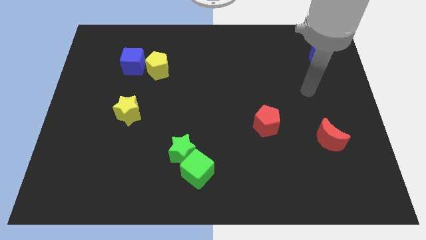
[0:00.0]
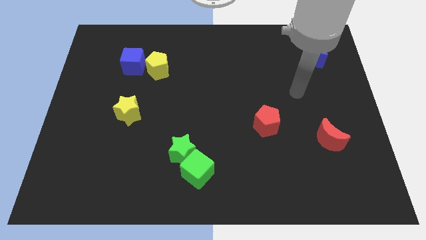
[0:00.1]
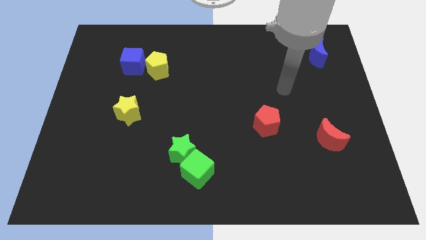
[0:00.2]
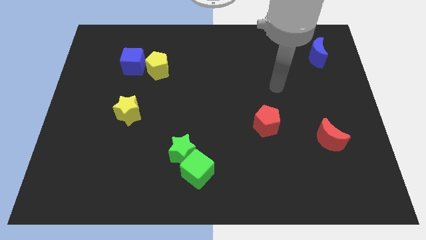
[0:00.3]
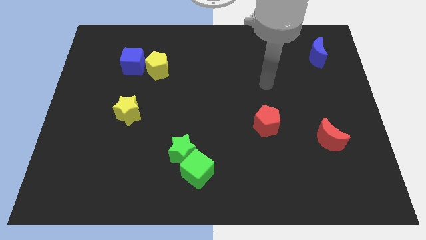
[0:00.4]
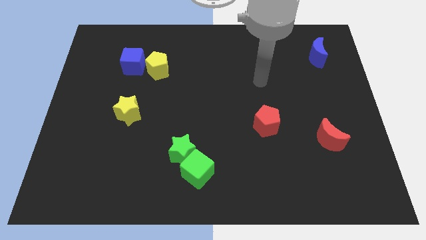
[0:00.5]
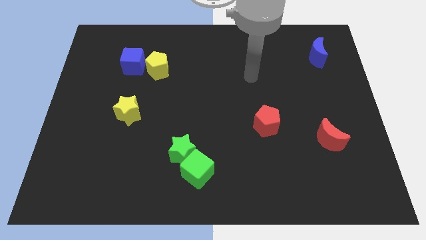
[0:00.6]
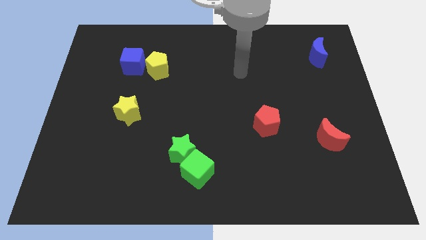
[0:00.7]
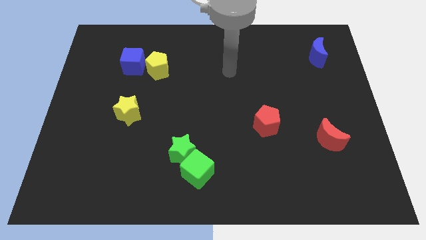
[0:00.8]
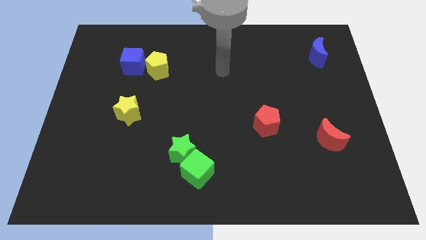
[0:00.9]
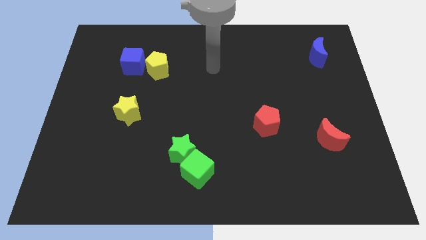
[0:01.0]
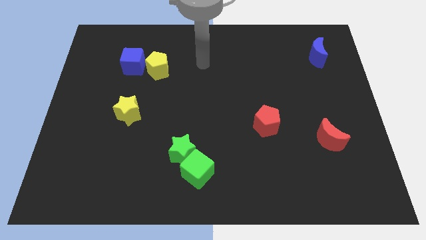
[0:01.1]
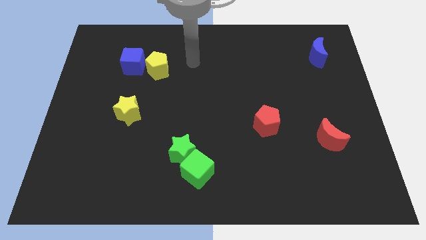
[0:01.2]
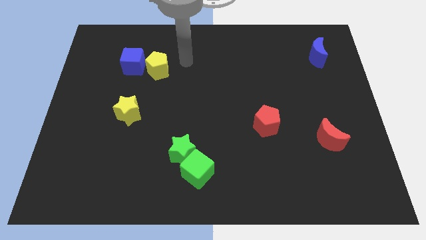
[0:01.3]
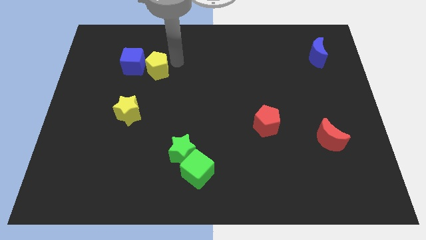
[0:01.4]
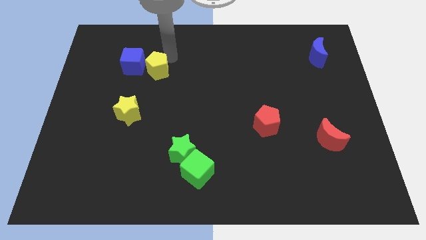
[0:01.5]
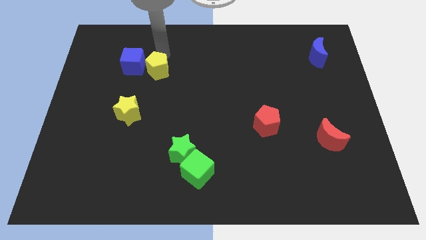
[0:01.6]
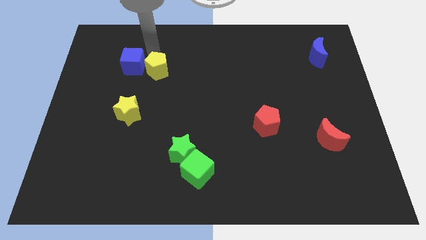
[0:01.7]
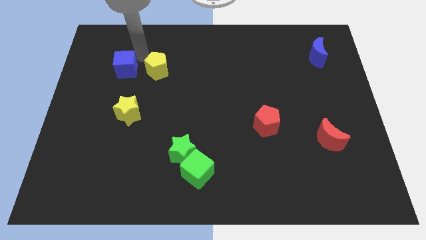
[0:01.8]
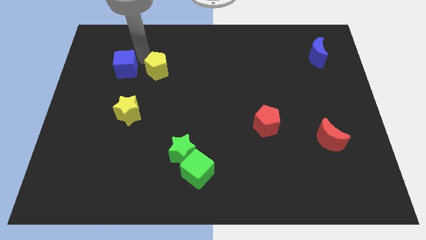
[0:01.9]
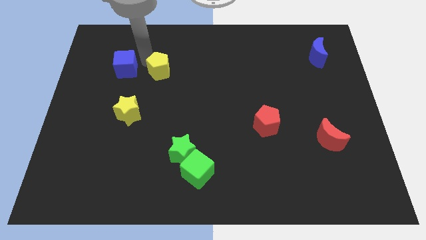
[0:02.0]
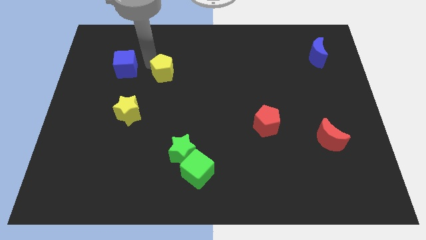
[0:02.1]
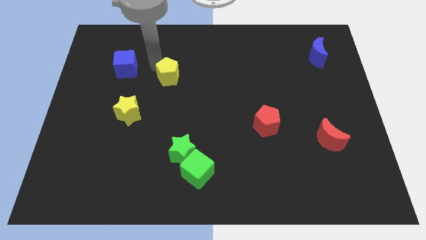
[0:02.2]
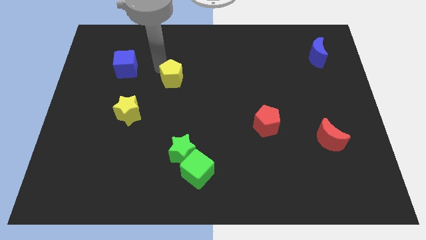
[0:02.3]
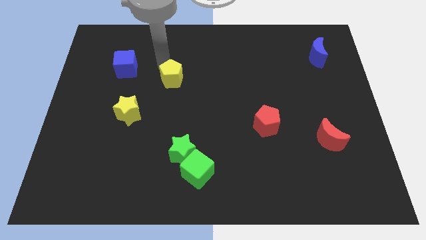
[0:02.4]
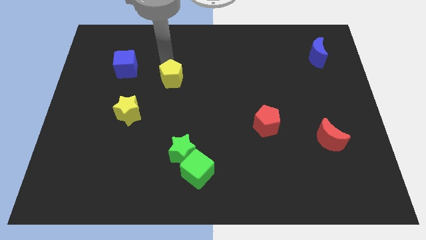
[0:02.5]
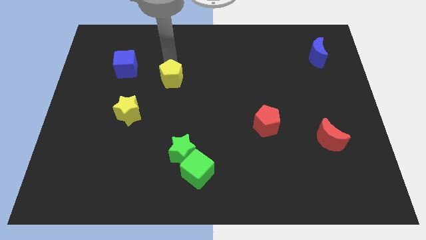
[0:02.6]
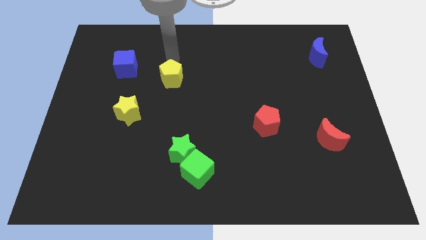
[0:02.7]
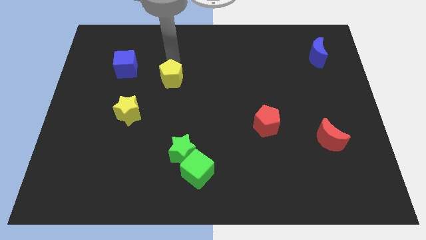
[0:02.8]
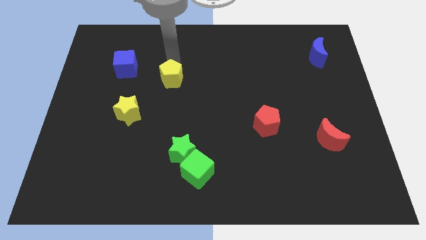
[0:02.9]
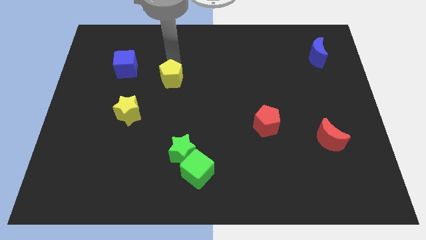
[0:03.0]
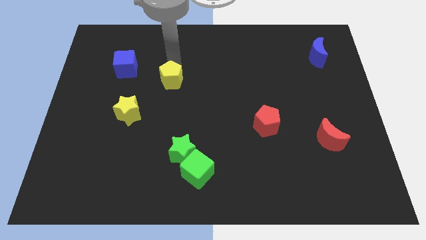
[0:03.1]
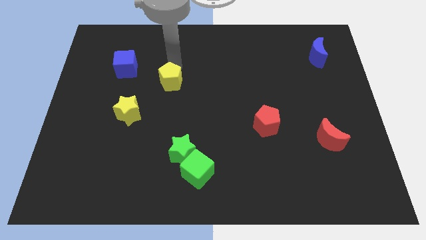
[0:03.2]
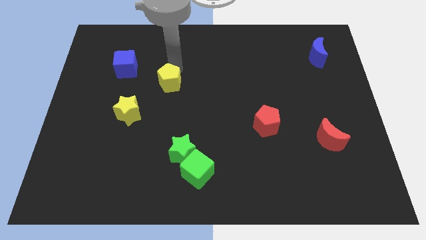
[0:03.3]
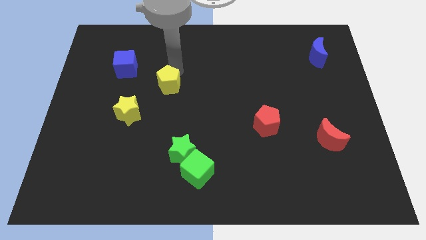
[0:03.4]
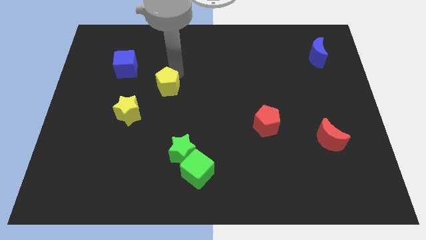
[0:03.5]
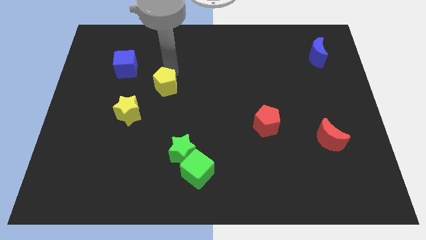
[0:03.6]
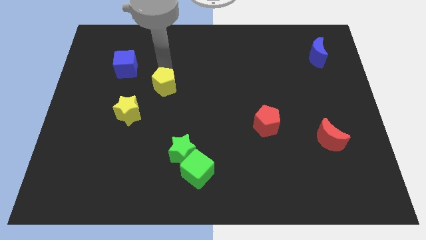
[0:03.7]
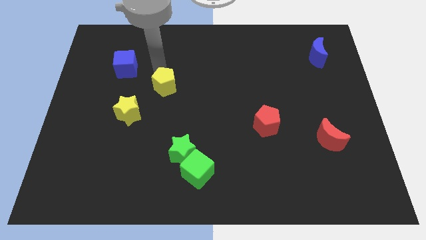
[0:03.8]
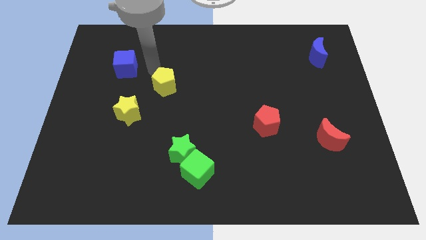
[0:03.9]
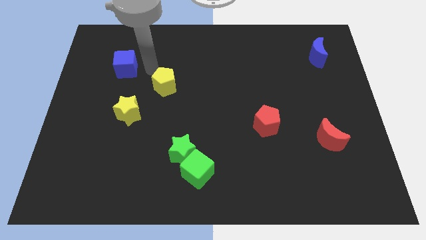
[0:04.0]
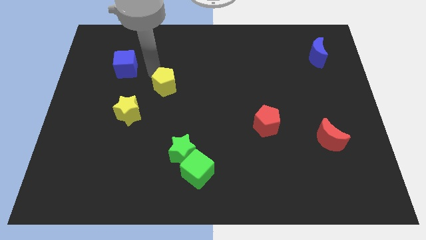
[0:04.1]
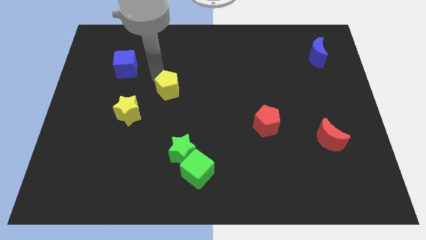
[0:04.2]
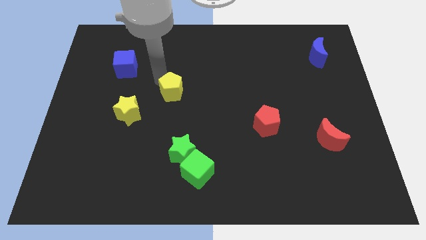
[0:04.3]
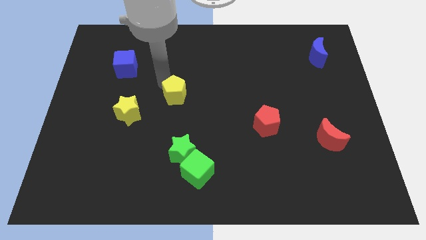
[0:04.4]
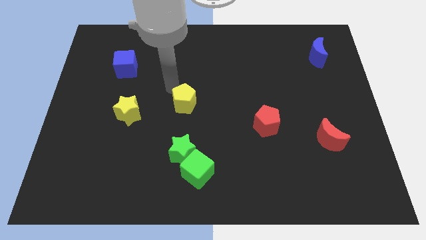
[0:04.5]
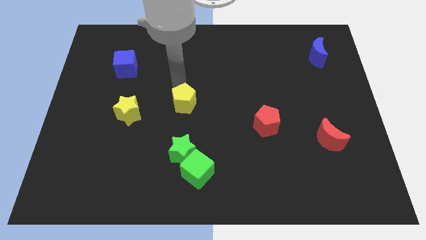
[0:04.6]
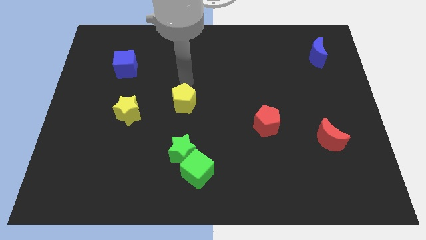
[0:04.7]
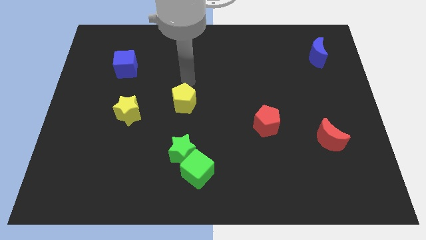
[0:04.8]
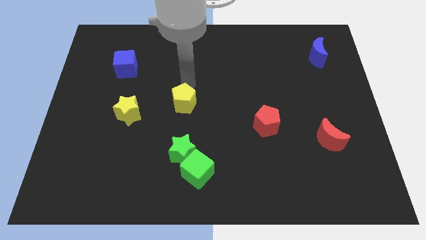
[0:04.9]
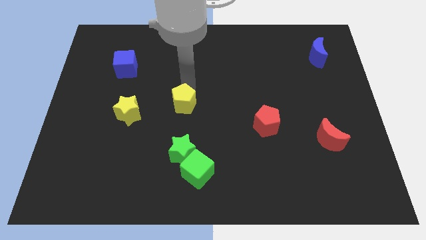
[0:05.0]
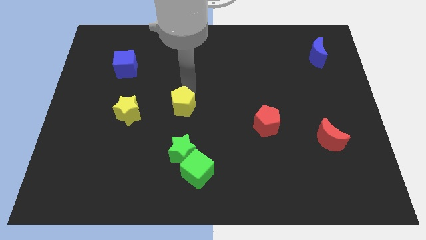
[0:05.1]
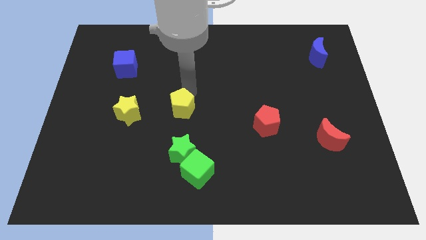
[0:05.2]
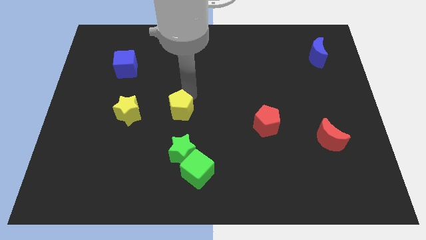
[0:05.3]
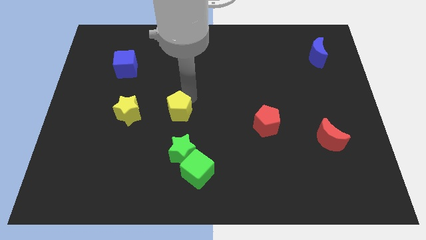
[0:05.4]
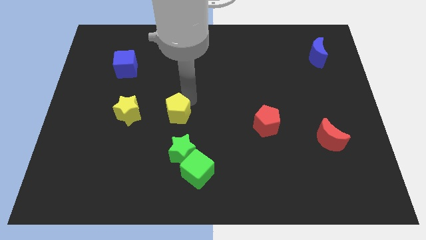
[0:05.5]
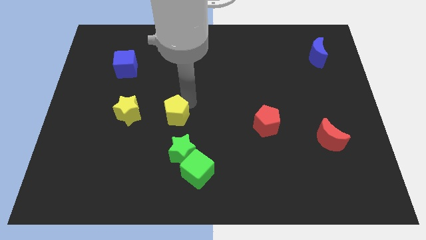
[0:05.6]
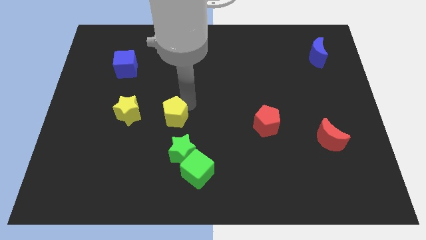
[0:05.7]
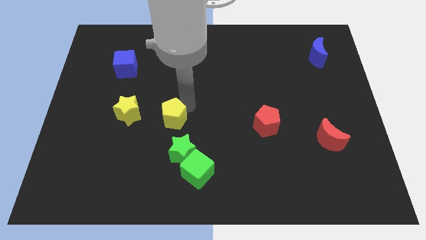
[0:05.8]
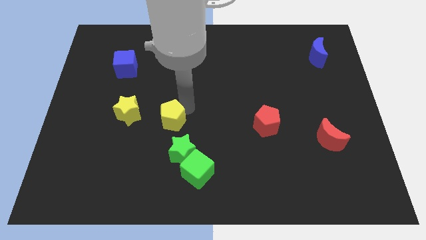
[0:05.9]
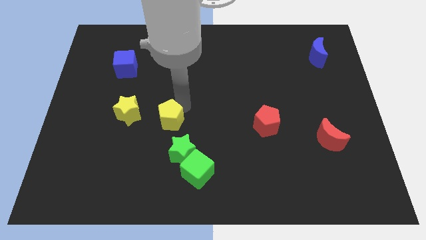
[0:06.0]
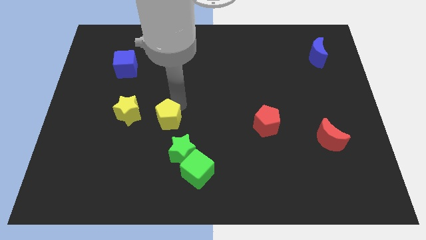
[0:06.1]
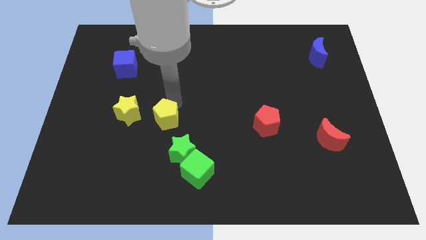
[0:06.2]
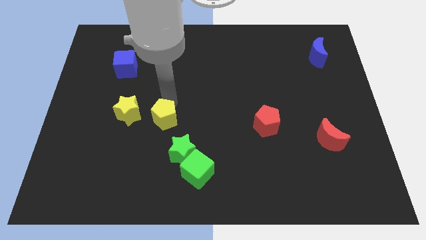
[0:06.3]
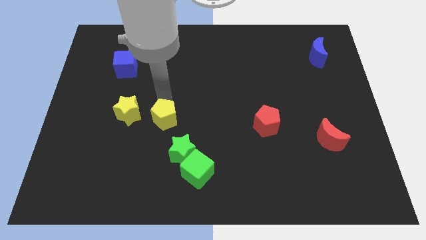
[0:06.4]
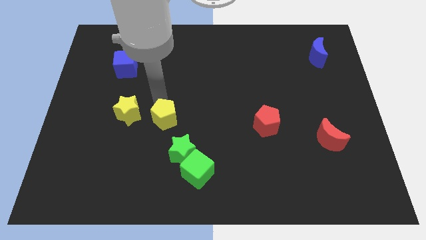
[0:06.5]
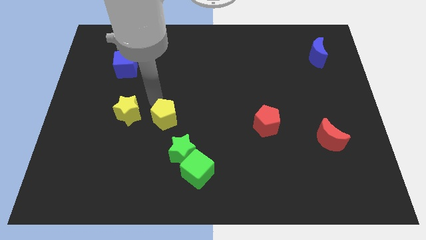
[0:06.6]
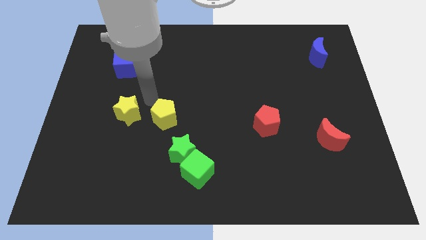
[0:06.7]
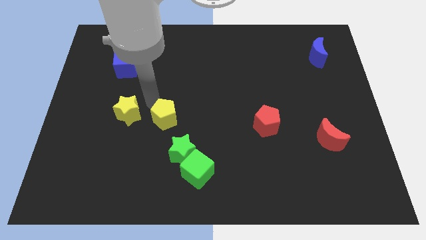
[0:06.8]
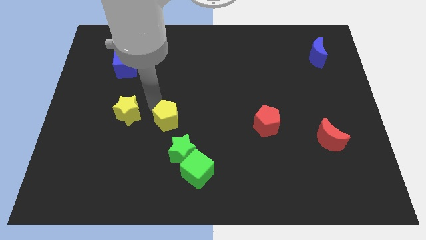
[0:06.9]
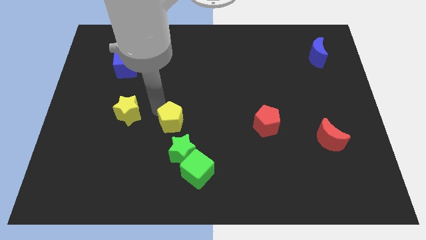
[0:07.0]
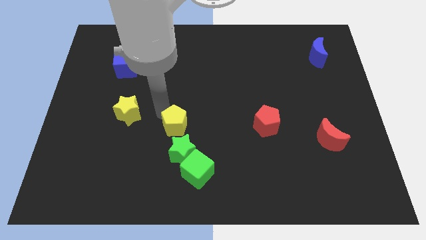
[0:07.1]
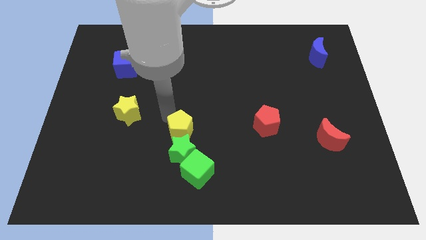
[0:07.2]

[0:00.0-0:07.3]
move the yellow pentagon next to the green star

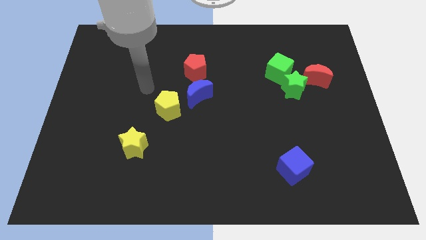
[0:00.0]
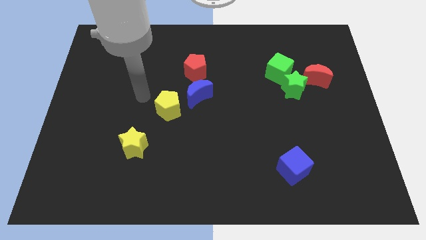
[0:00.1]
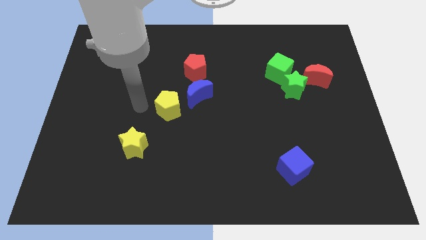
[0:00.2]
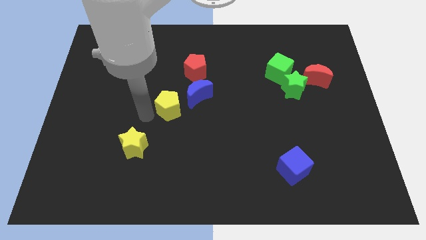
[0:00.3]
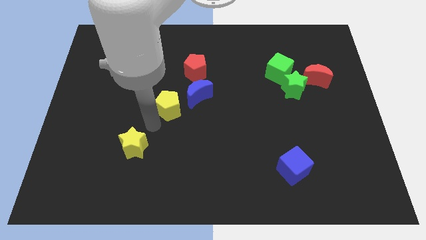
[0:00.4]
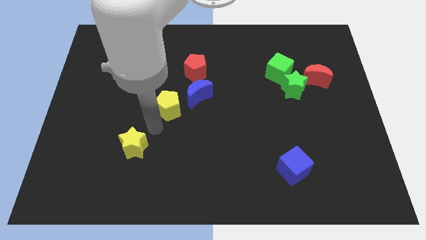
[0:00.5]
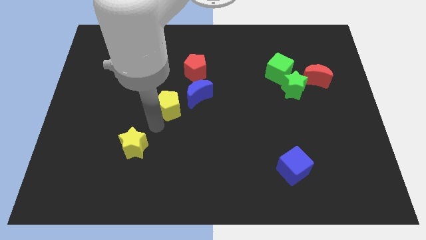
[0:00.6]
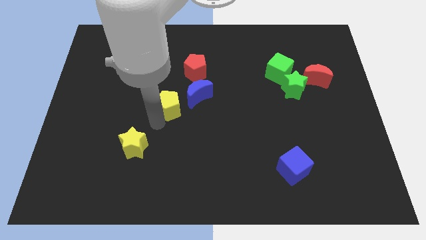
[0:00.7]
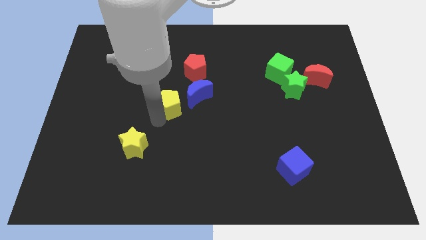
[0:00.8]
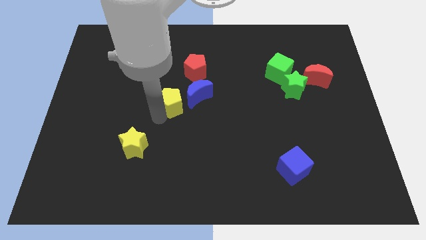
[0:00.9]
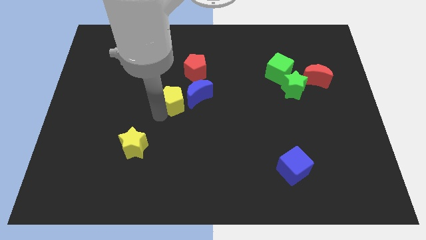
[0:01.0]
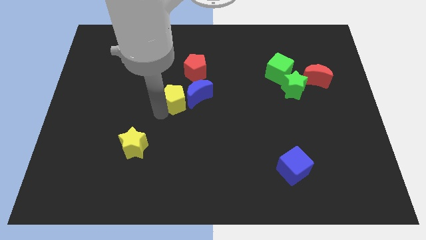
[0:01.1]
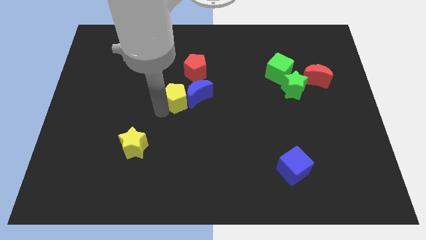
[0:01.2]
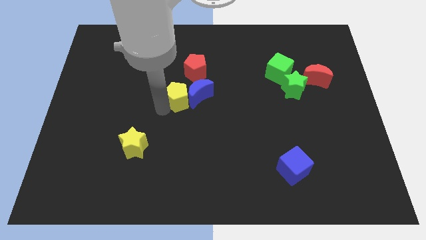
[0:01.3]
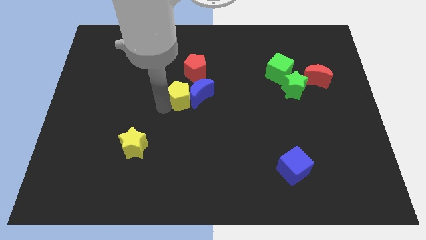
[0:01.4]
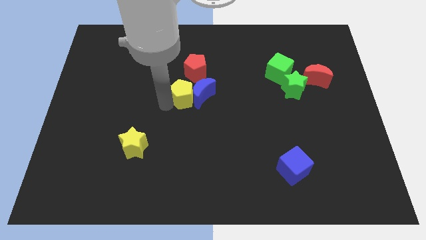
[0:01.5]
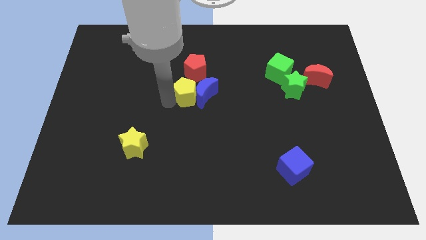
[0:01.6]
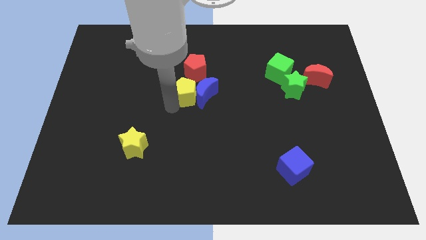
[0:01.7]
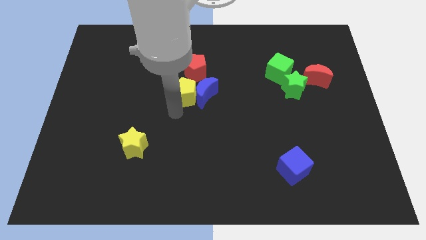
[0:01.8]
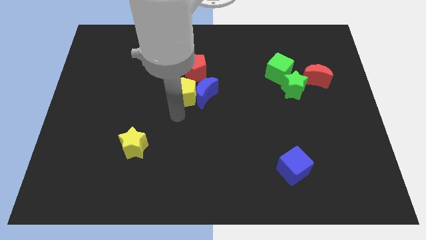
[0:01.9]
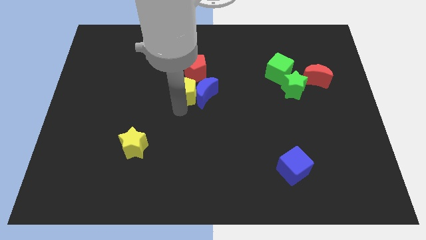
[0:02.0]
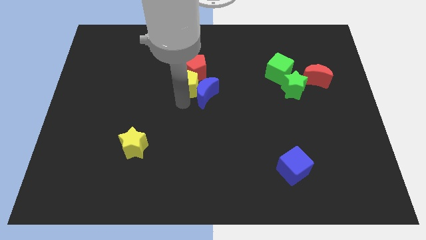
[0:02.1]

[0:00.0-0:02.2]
slide the yellow pentagon towards the red pentagon
